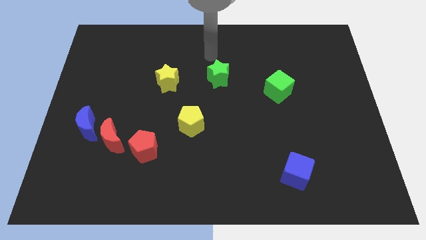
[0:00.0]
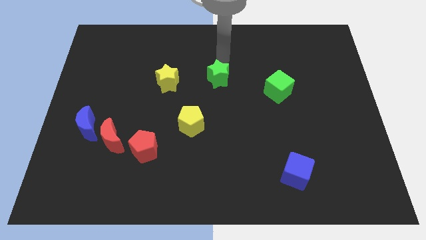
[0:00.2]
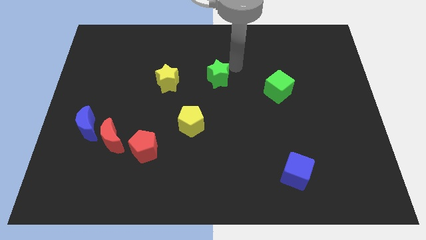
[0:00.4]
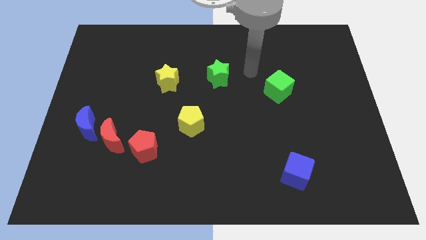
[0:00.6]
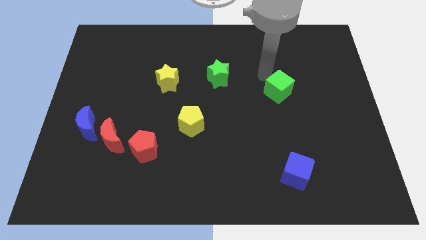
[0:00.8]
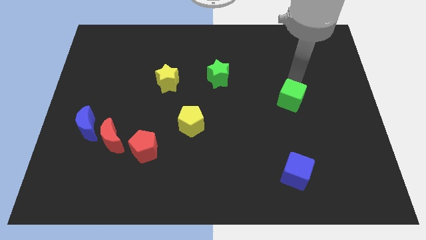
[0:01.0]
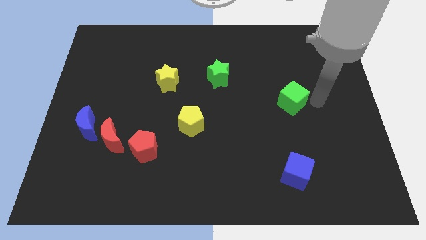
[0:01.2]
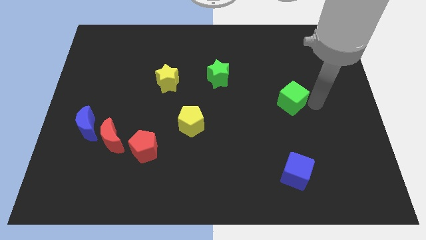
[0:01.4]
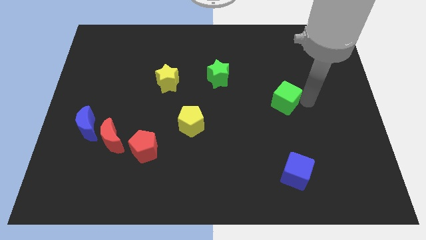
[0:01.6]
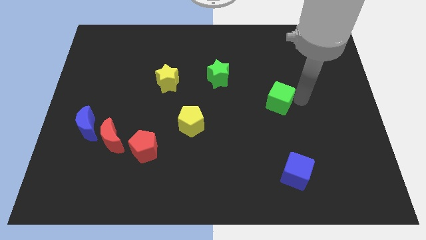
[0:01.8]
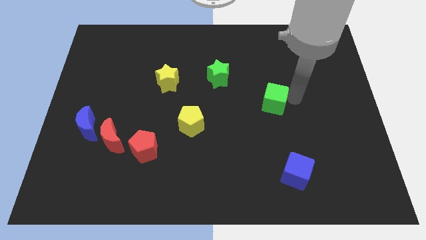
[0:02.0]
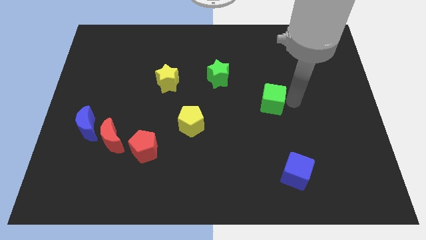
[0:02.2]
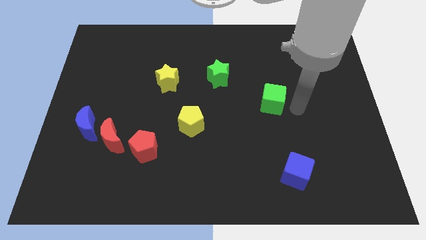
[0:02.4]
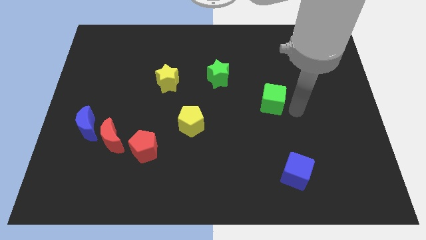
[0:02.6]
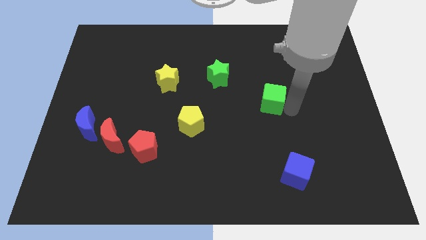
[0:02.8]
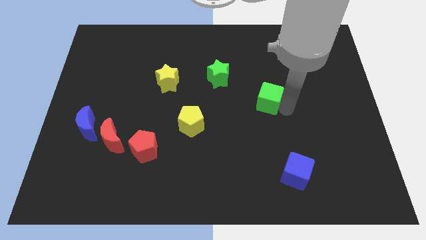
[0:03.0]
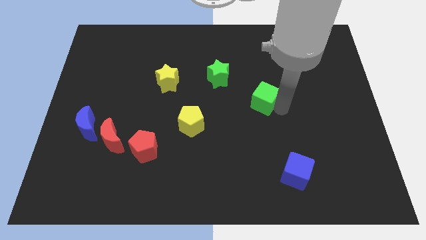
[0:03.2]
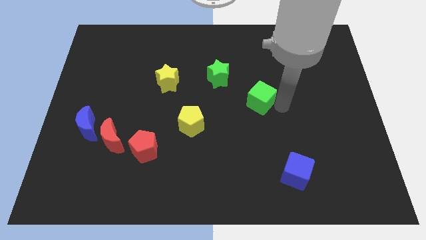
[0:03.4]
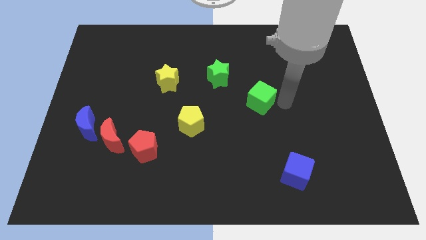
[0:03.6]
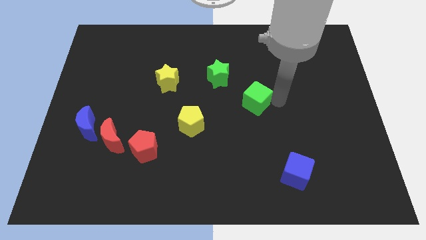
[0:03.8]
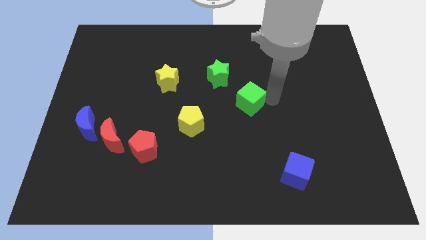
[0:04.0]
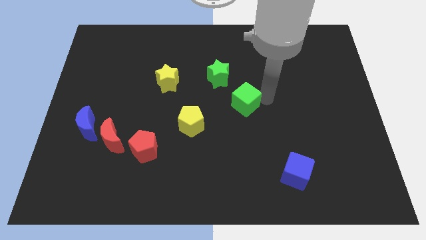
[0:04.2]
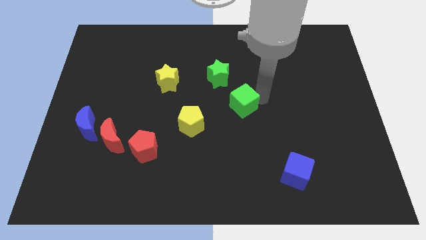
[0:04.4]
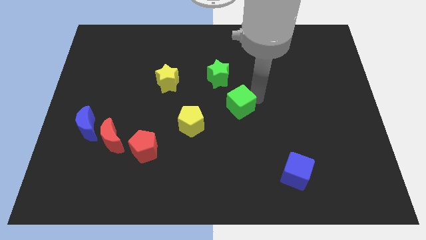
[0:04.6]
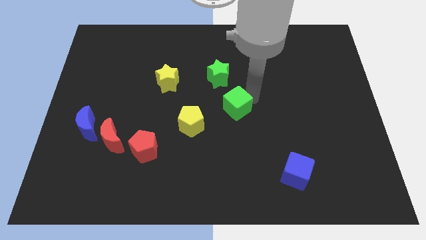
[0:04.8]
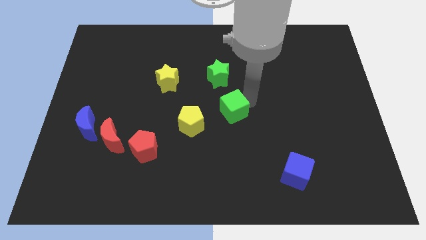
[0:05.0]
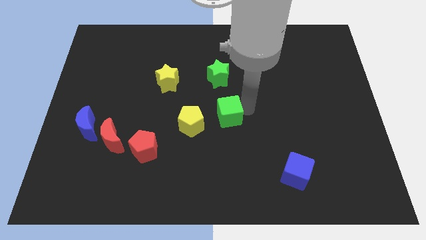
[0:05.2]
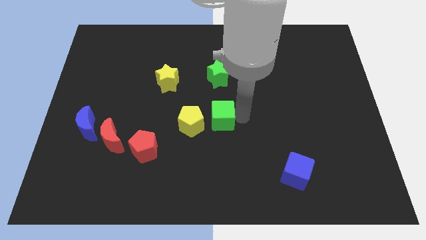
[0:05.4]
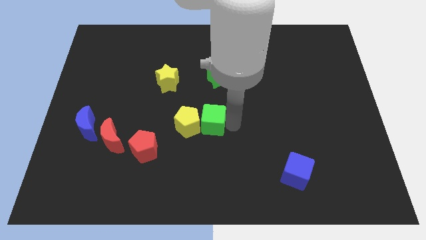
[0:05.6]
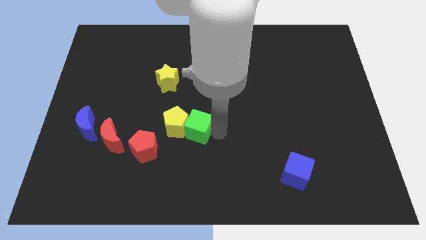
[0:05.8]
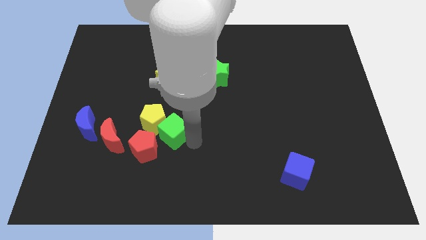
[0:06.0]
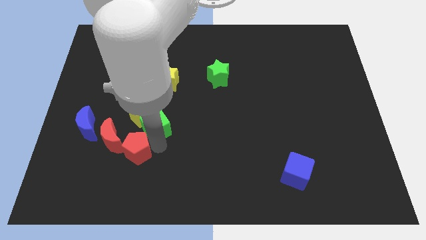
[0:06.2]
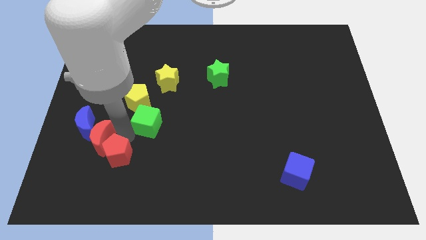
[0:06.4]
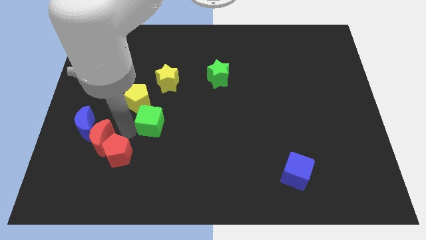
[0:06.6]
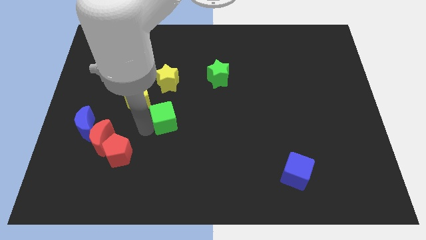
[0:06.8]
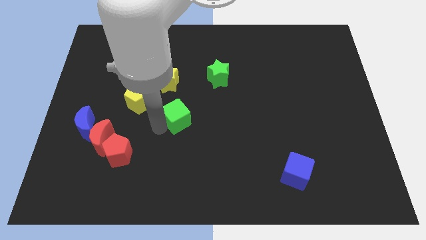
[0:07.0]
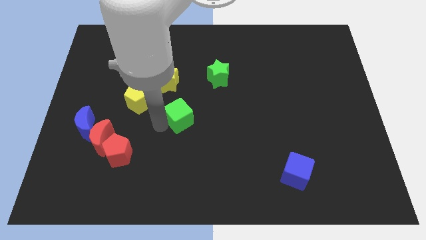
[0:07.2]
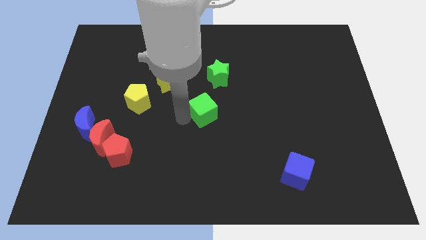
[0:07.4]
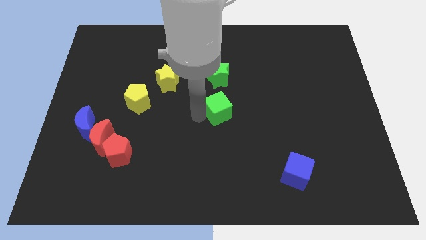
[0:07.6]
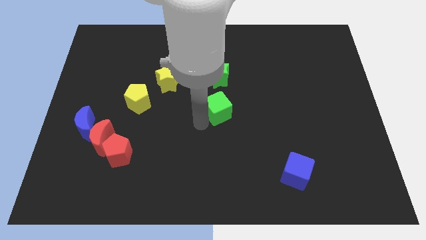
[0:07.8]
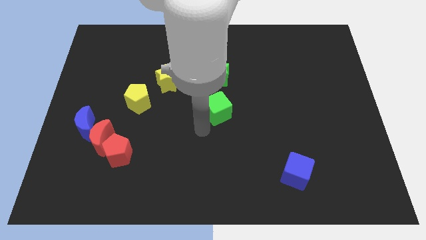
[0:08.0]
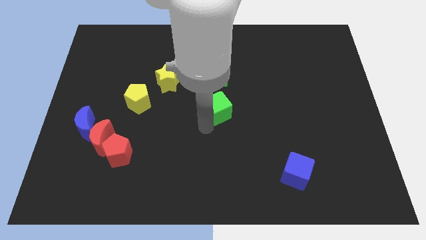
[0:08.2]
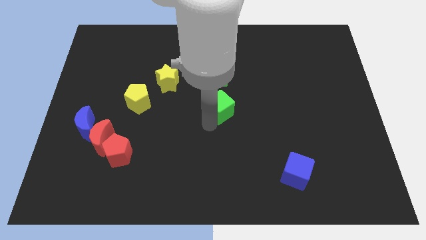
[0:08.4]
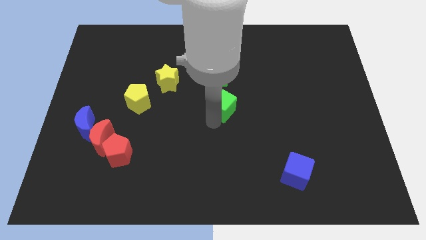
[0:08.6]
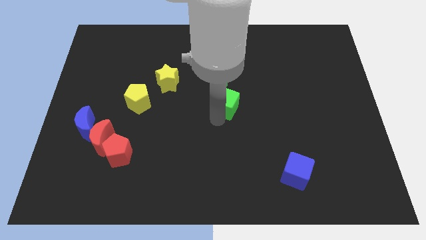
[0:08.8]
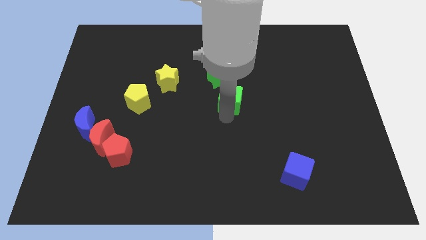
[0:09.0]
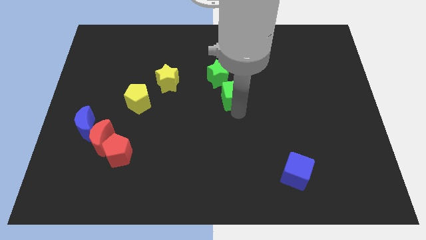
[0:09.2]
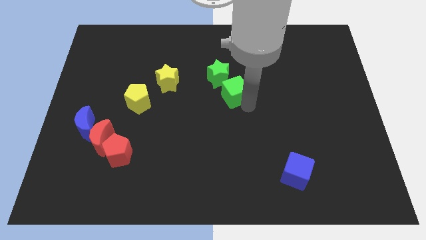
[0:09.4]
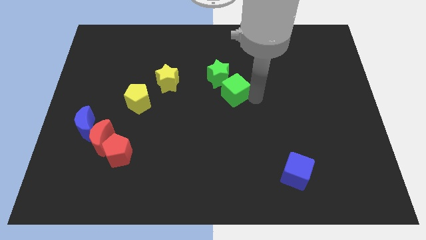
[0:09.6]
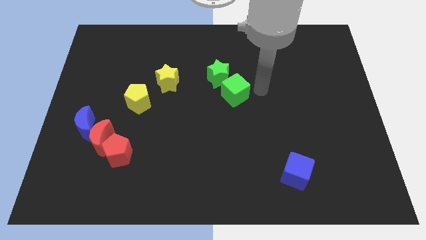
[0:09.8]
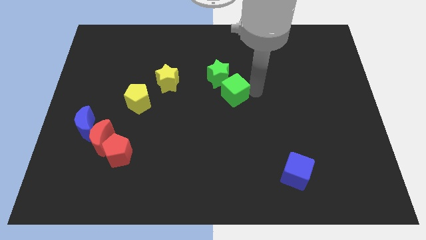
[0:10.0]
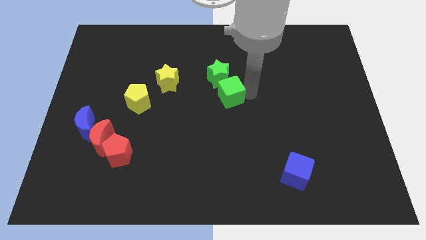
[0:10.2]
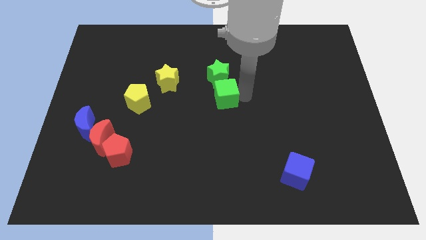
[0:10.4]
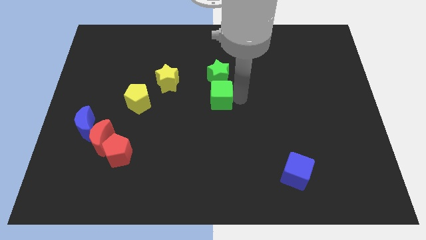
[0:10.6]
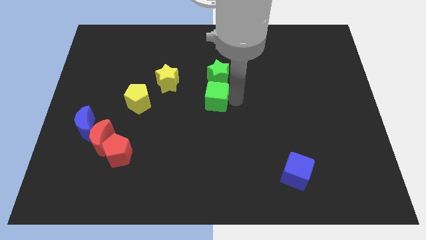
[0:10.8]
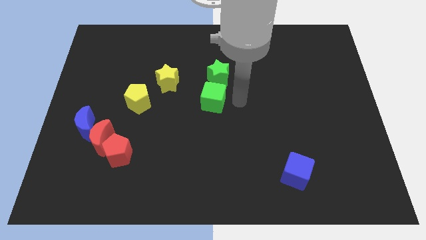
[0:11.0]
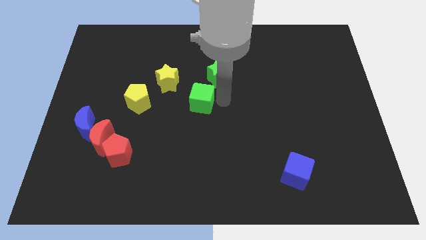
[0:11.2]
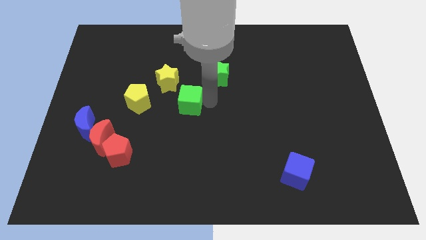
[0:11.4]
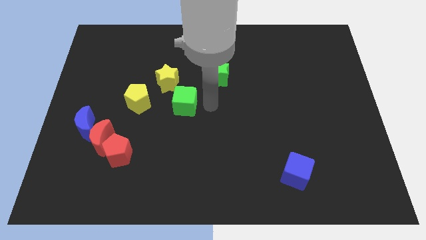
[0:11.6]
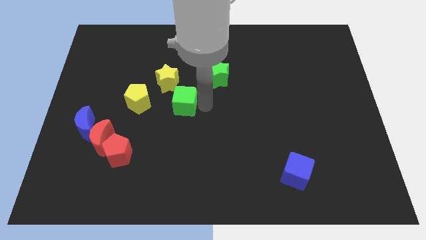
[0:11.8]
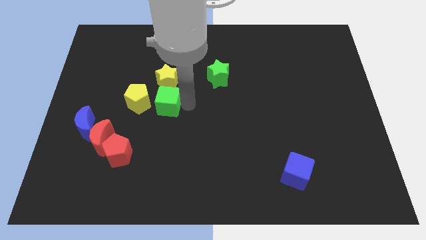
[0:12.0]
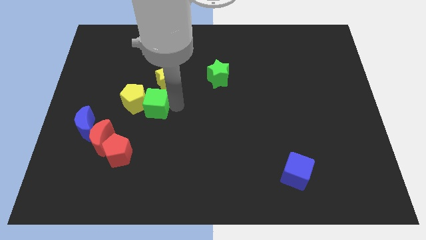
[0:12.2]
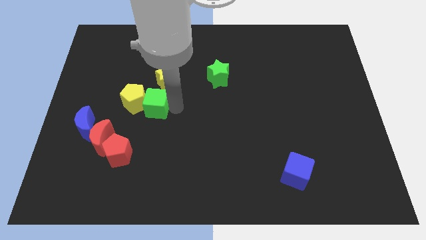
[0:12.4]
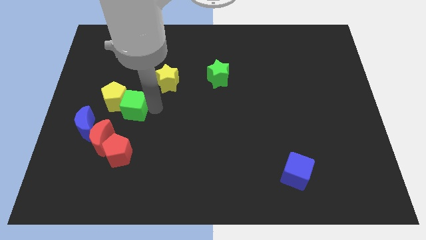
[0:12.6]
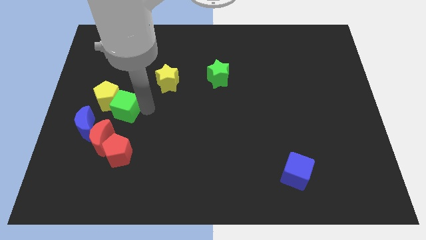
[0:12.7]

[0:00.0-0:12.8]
slide the green cube to the top side of the red moon
